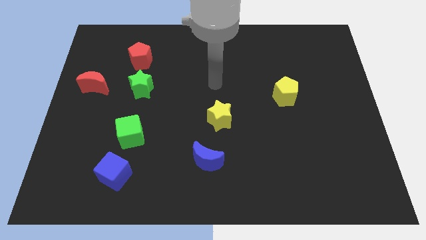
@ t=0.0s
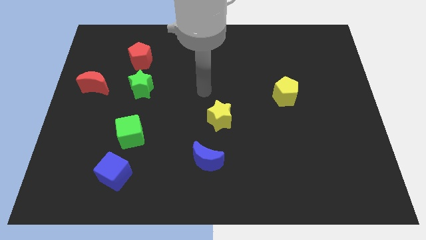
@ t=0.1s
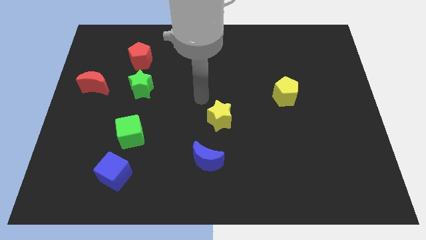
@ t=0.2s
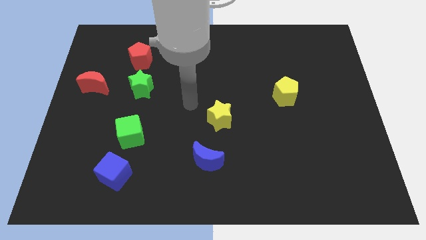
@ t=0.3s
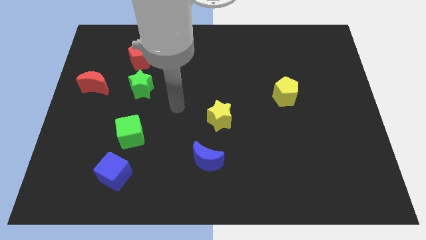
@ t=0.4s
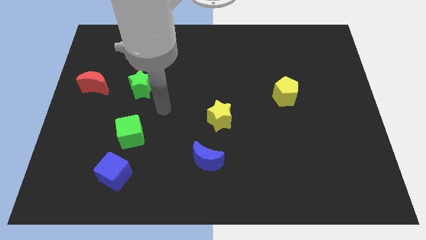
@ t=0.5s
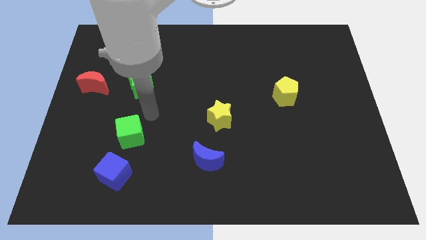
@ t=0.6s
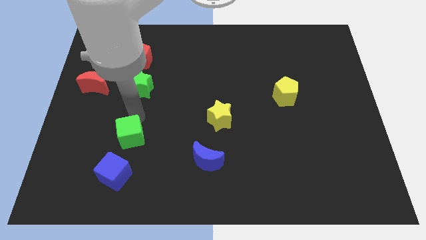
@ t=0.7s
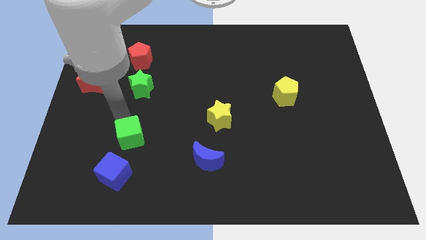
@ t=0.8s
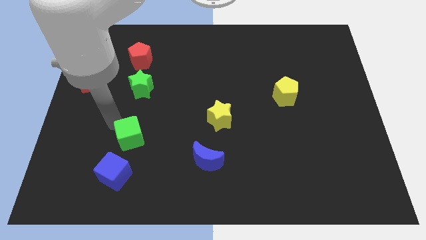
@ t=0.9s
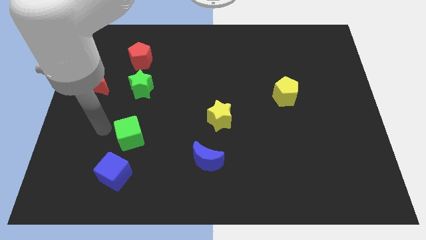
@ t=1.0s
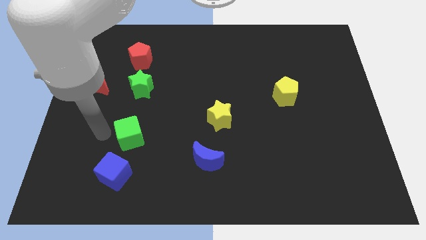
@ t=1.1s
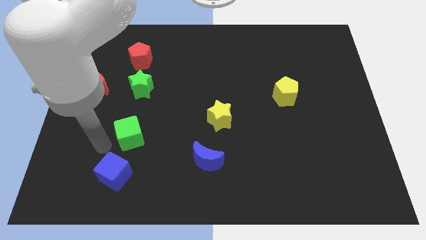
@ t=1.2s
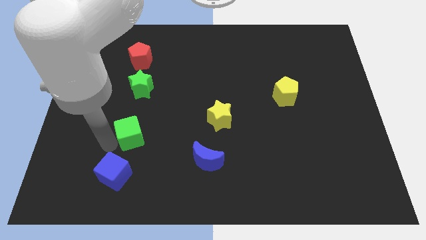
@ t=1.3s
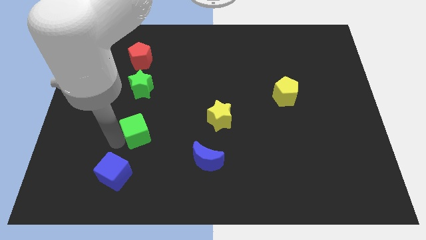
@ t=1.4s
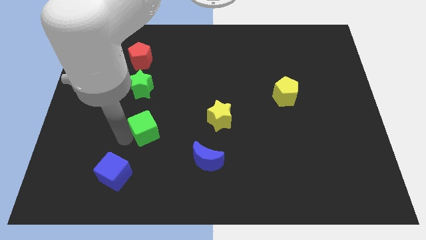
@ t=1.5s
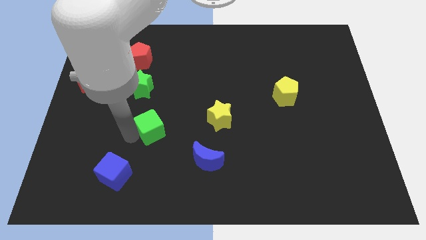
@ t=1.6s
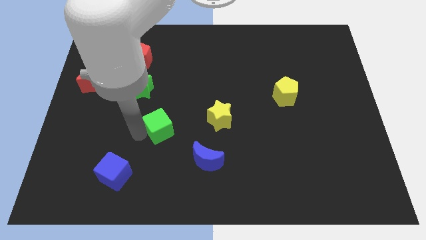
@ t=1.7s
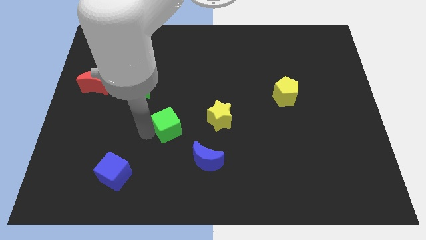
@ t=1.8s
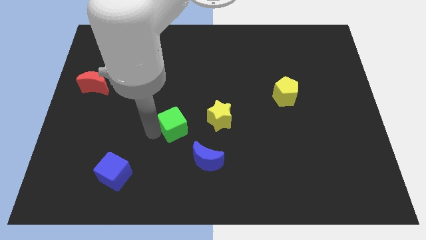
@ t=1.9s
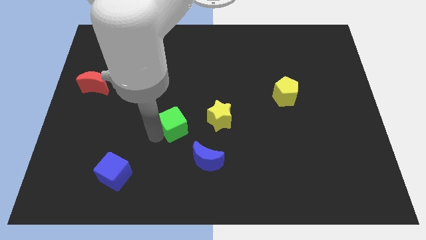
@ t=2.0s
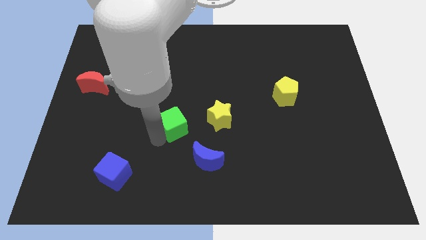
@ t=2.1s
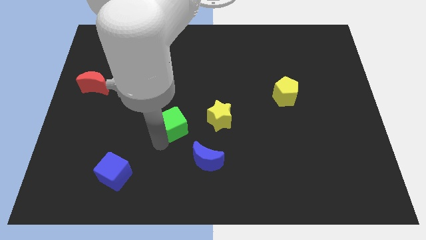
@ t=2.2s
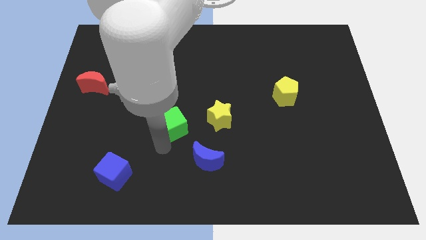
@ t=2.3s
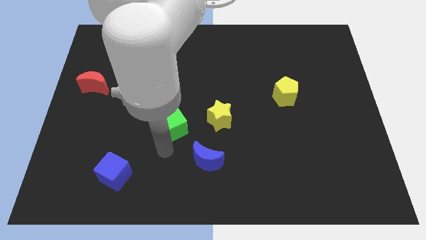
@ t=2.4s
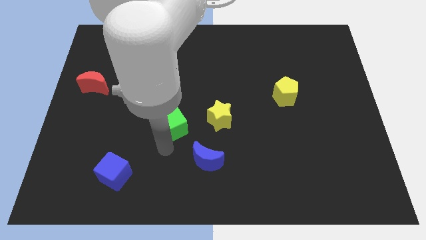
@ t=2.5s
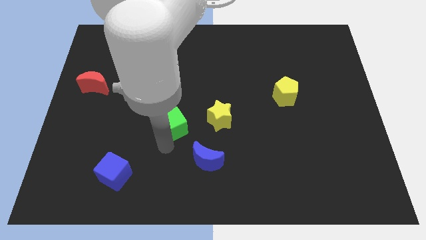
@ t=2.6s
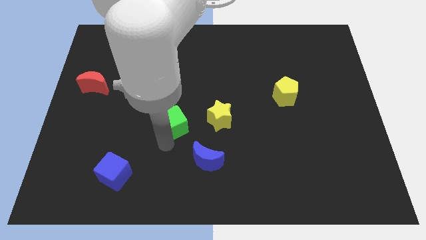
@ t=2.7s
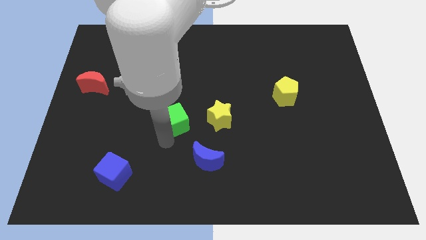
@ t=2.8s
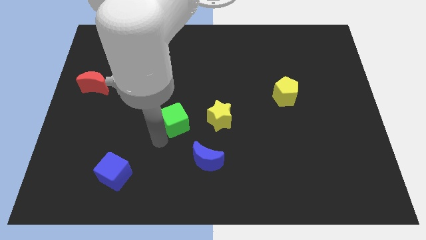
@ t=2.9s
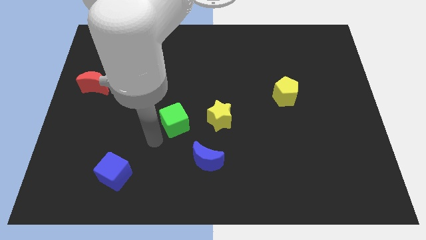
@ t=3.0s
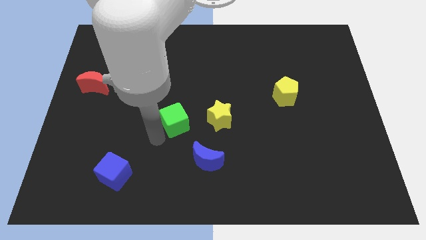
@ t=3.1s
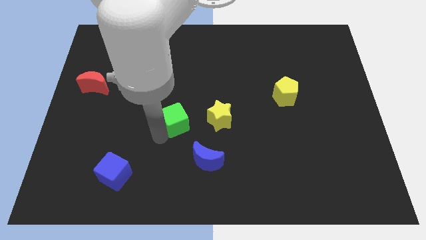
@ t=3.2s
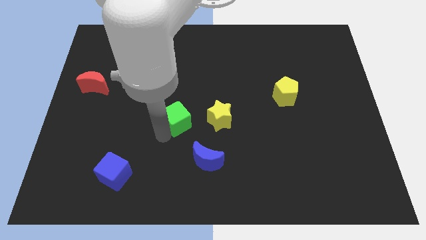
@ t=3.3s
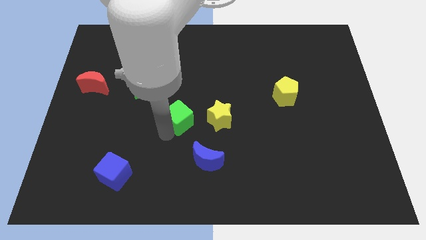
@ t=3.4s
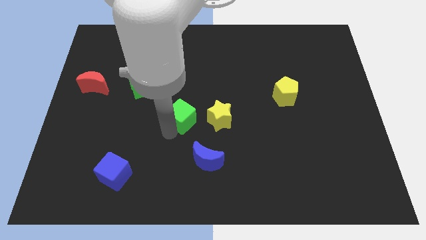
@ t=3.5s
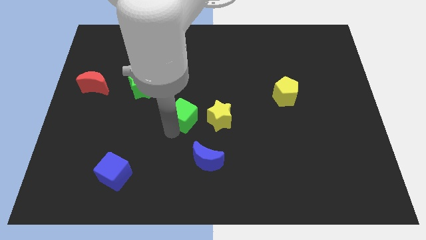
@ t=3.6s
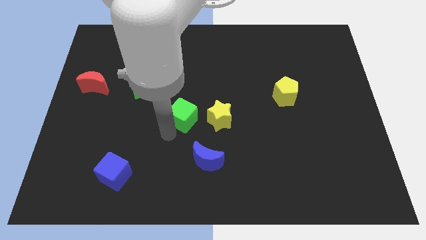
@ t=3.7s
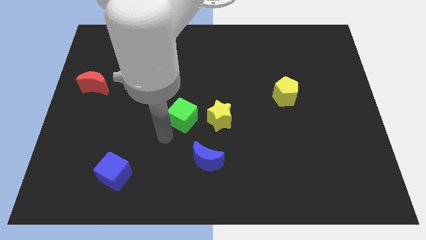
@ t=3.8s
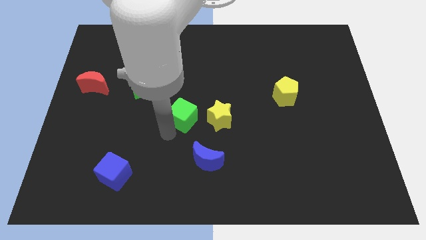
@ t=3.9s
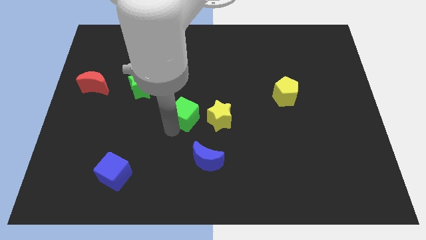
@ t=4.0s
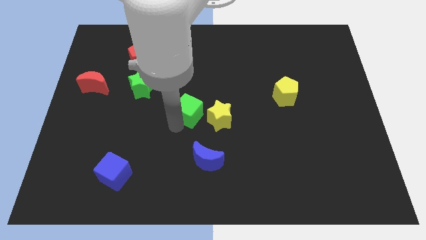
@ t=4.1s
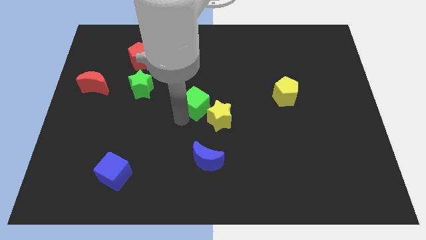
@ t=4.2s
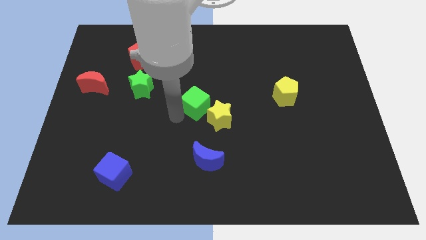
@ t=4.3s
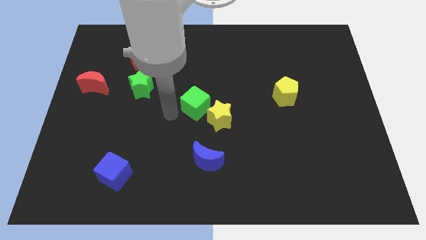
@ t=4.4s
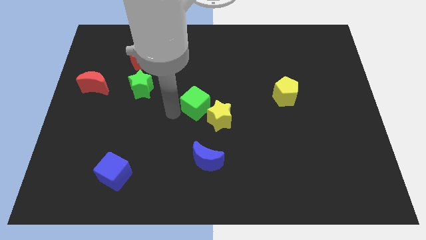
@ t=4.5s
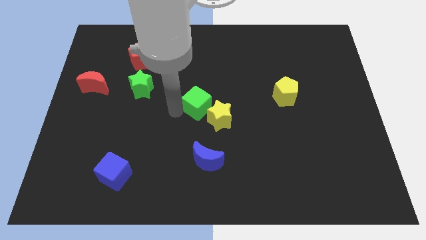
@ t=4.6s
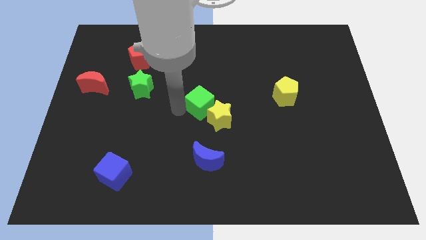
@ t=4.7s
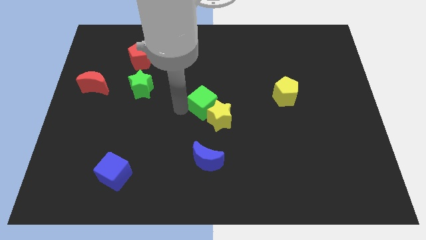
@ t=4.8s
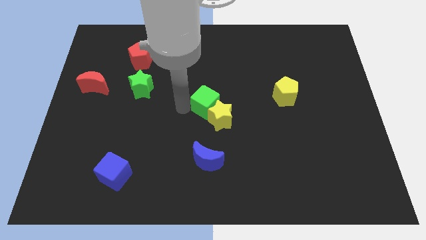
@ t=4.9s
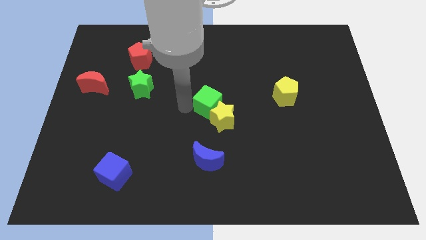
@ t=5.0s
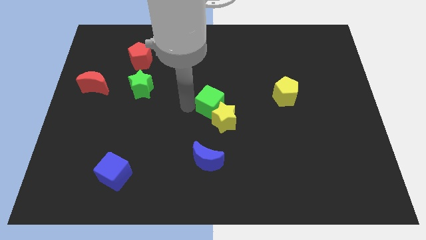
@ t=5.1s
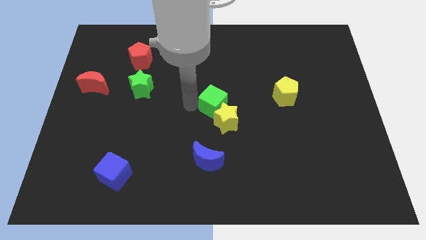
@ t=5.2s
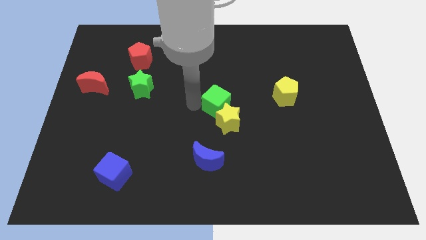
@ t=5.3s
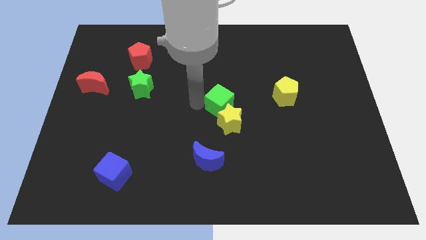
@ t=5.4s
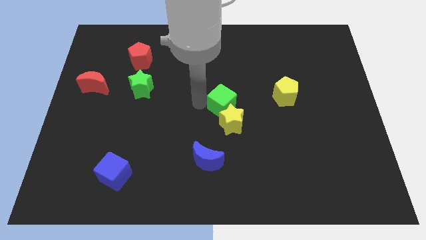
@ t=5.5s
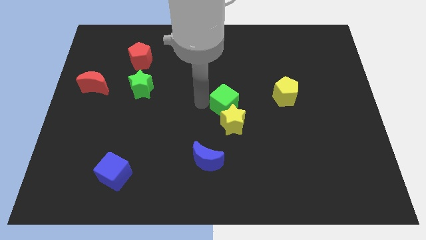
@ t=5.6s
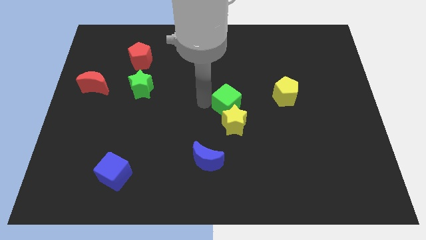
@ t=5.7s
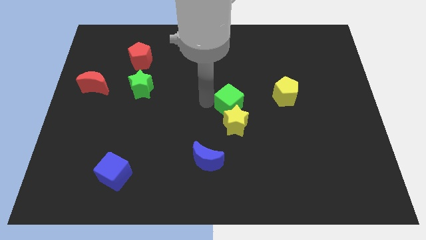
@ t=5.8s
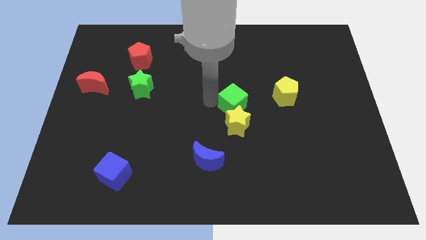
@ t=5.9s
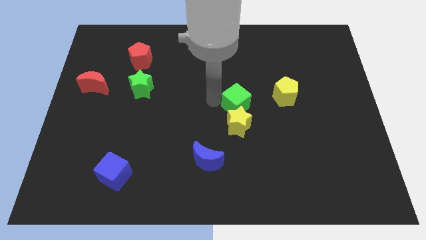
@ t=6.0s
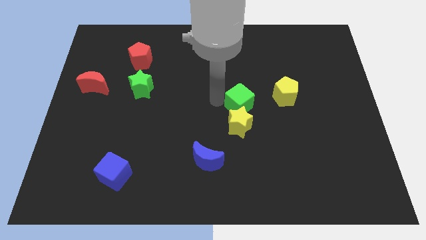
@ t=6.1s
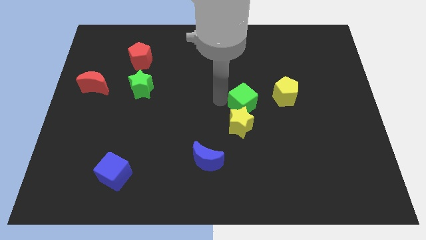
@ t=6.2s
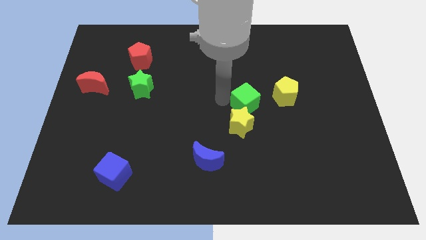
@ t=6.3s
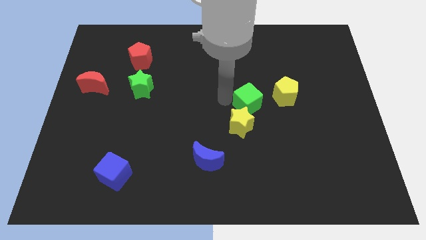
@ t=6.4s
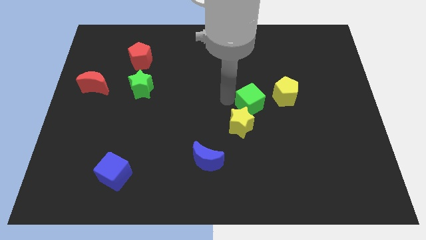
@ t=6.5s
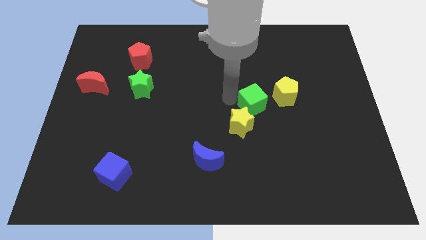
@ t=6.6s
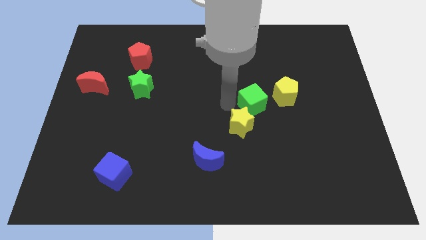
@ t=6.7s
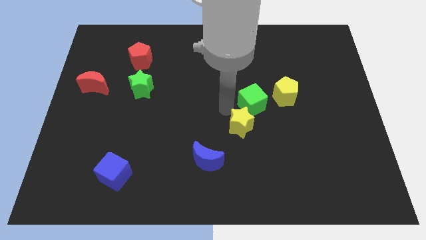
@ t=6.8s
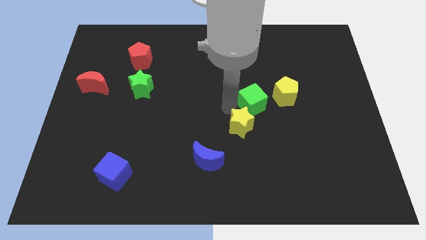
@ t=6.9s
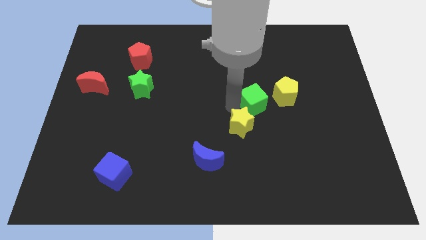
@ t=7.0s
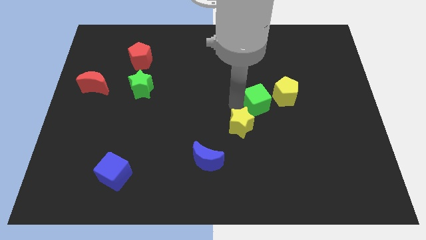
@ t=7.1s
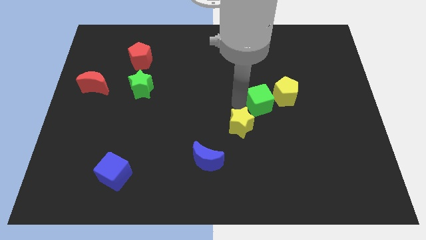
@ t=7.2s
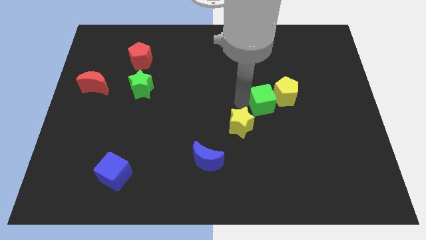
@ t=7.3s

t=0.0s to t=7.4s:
put the green cube next to the yellow pentagon

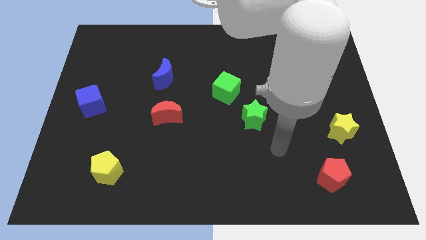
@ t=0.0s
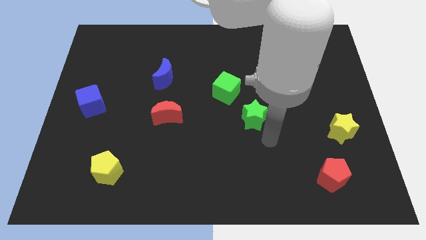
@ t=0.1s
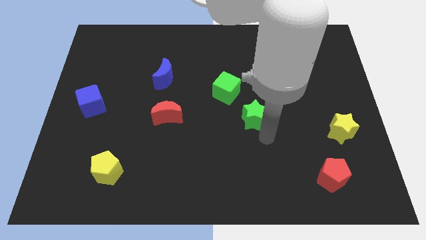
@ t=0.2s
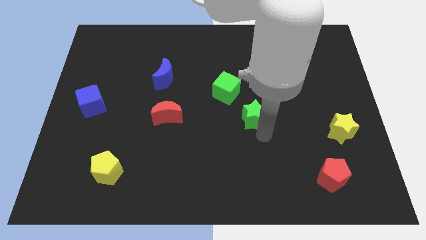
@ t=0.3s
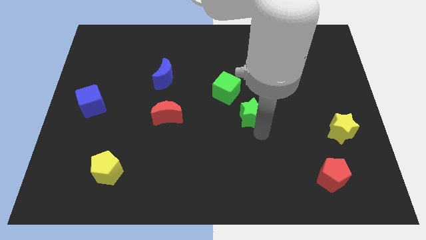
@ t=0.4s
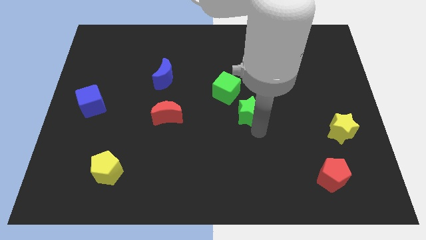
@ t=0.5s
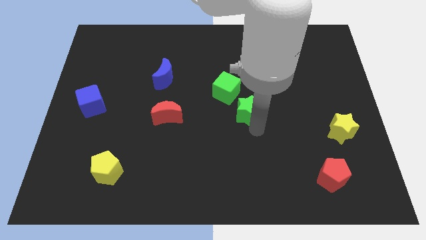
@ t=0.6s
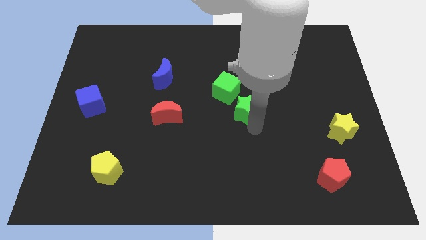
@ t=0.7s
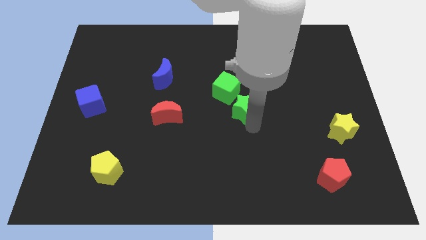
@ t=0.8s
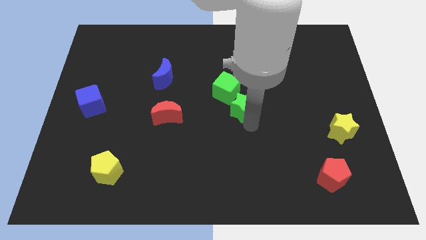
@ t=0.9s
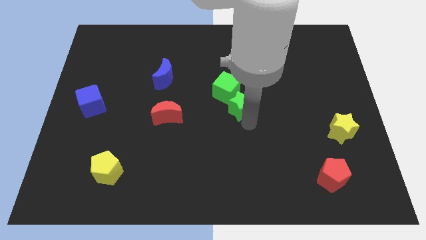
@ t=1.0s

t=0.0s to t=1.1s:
move the green star towards the green cube
